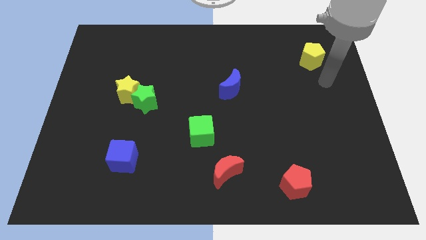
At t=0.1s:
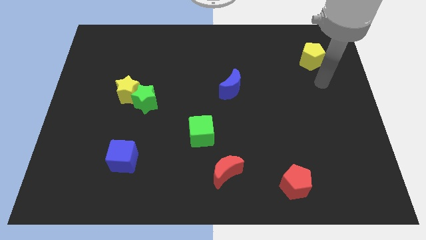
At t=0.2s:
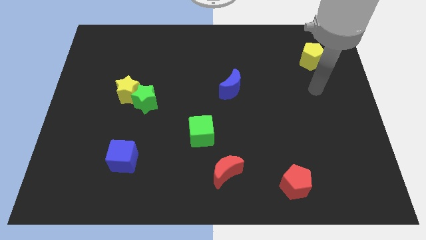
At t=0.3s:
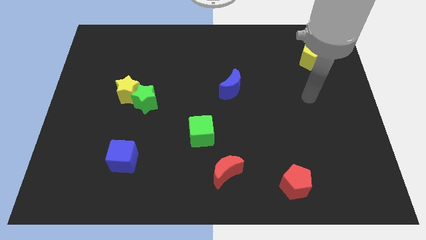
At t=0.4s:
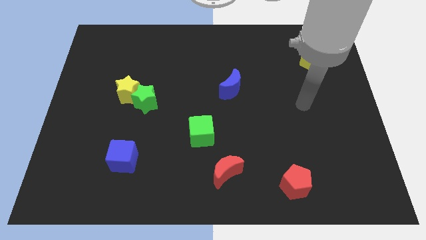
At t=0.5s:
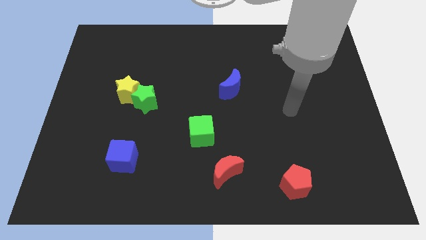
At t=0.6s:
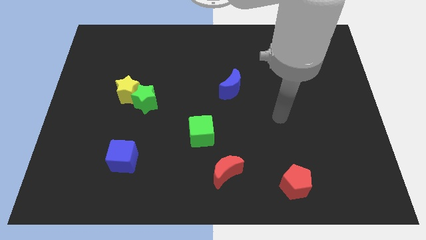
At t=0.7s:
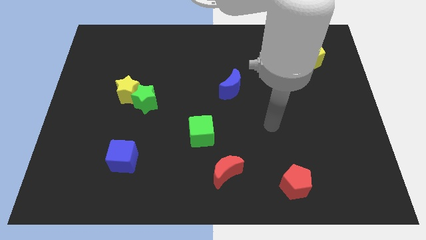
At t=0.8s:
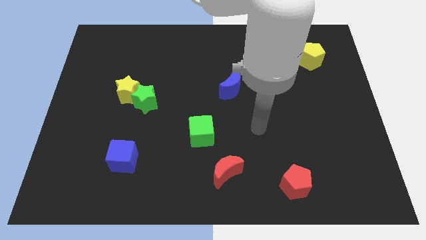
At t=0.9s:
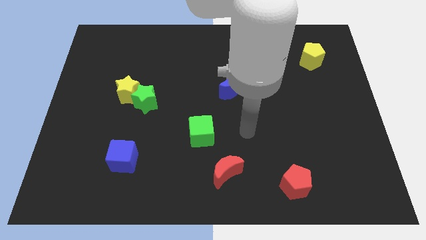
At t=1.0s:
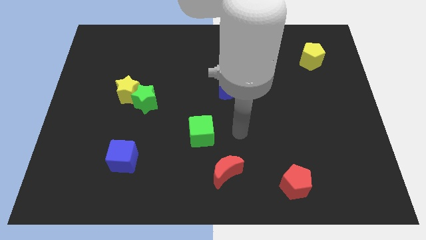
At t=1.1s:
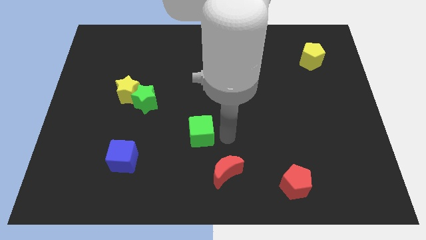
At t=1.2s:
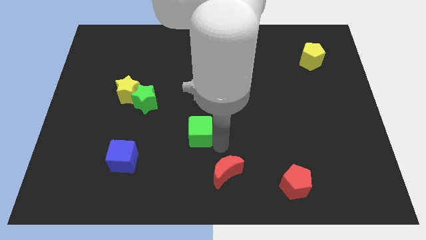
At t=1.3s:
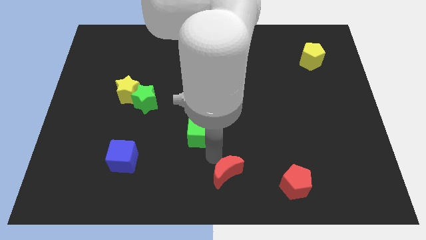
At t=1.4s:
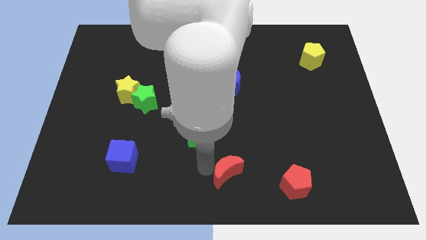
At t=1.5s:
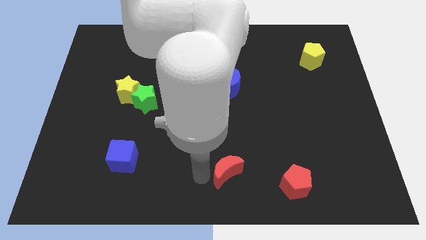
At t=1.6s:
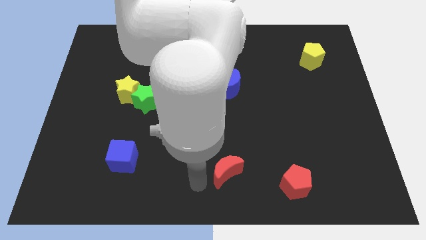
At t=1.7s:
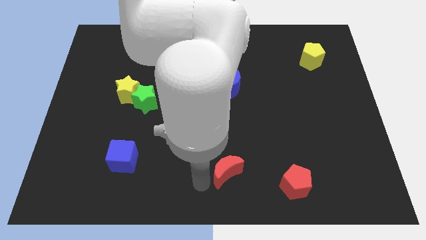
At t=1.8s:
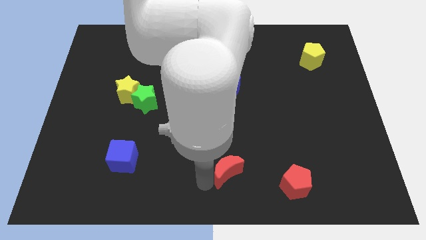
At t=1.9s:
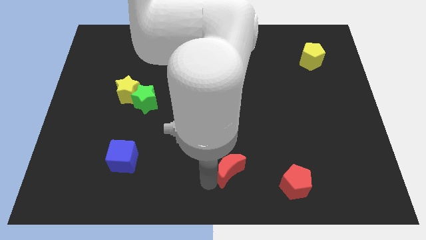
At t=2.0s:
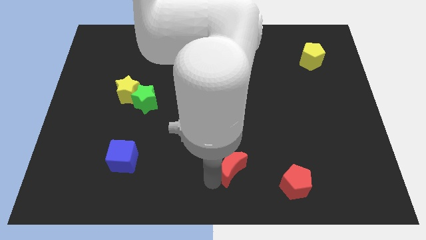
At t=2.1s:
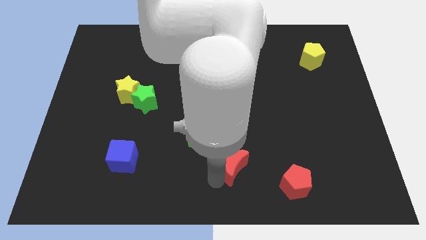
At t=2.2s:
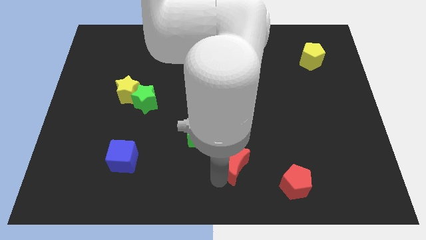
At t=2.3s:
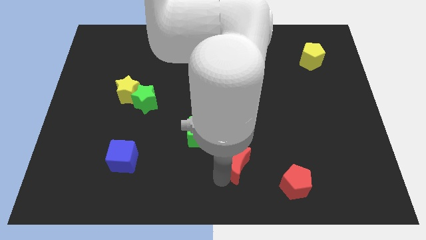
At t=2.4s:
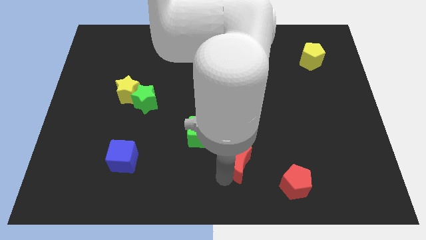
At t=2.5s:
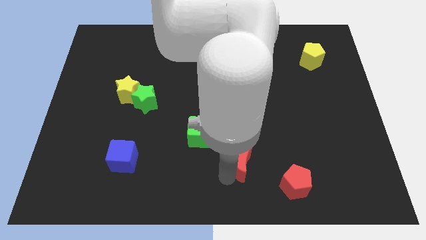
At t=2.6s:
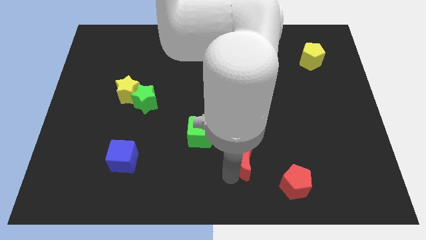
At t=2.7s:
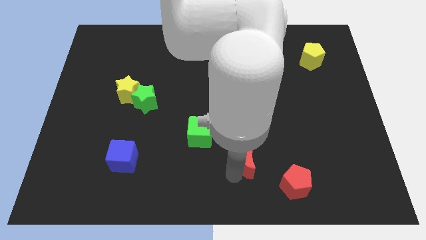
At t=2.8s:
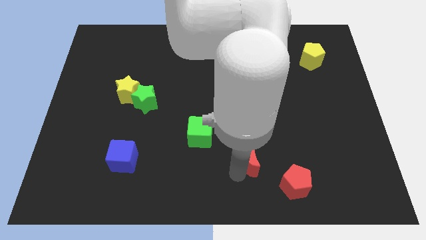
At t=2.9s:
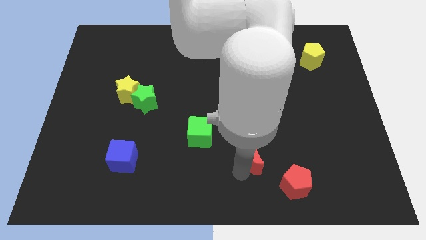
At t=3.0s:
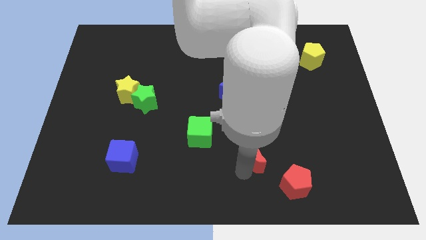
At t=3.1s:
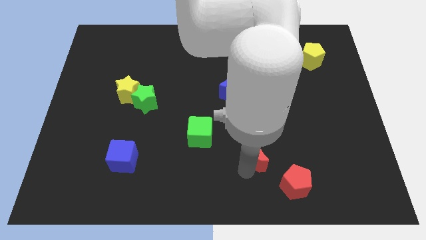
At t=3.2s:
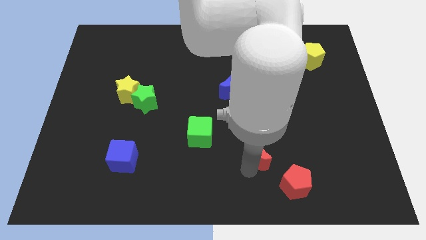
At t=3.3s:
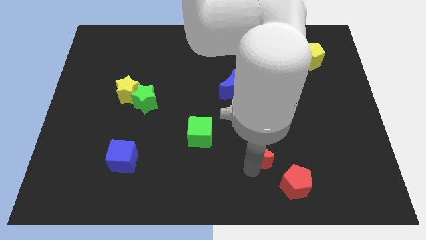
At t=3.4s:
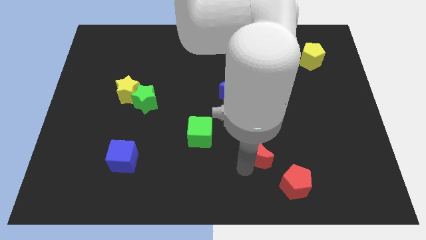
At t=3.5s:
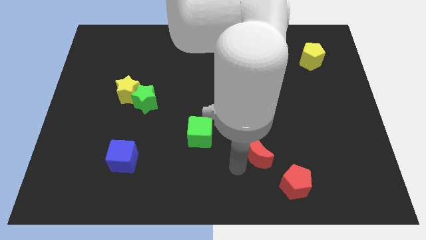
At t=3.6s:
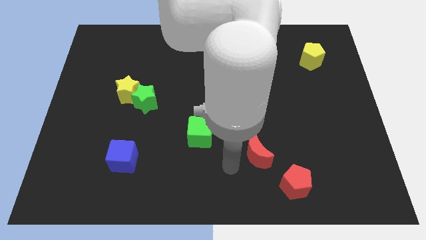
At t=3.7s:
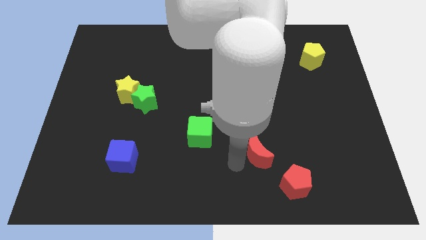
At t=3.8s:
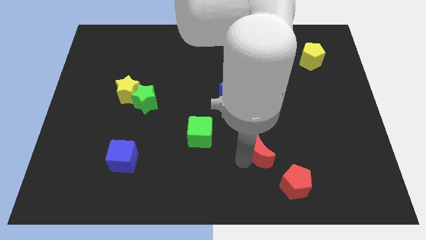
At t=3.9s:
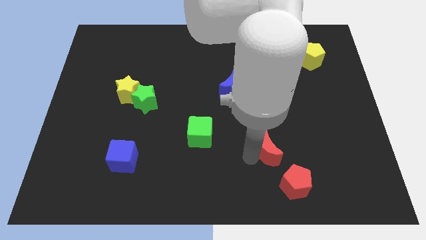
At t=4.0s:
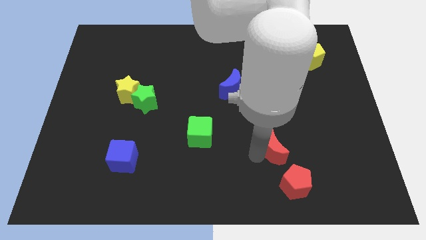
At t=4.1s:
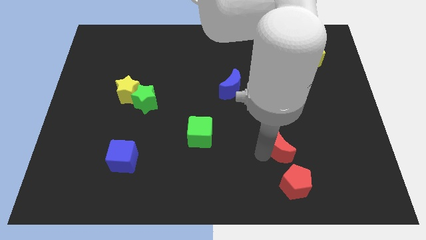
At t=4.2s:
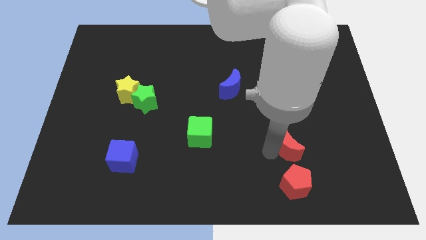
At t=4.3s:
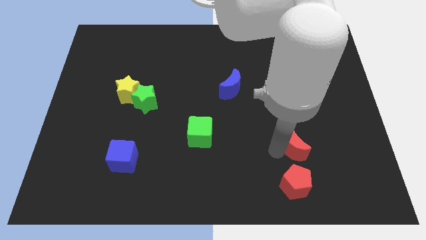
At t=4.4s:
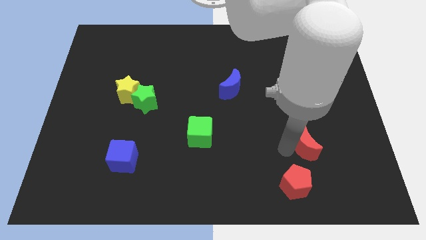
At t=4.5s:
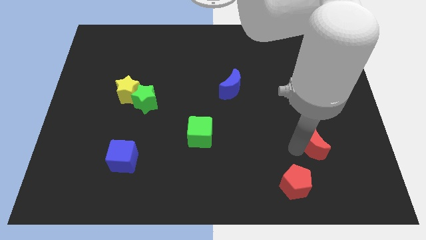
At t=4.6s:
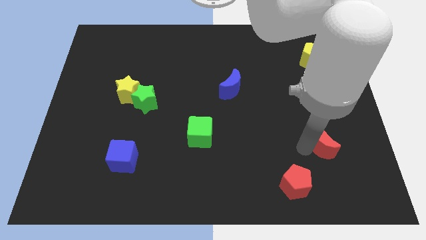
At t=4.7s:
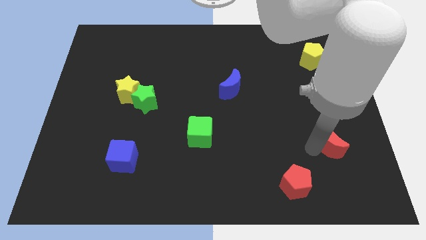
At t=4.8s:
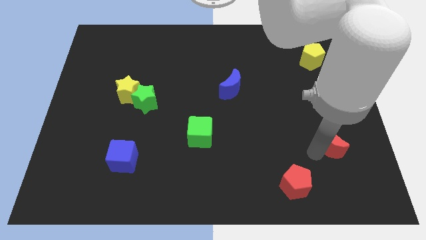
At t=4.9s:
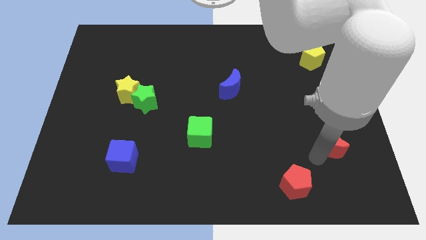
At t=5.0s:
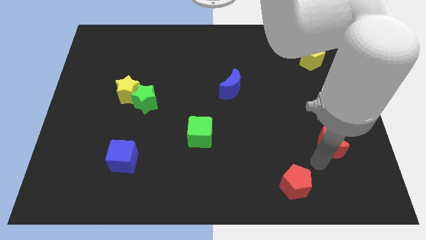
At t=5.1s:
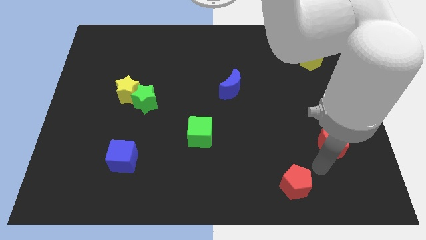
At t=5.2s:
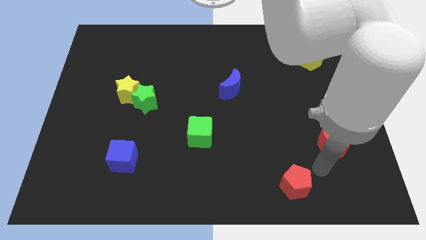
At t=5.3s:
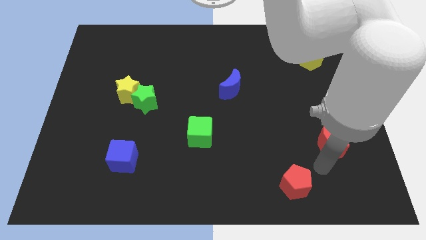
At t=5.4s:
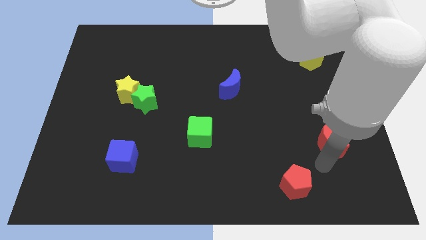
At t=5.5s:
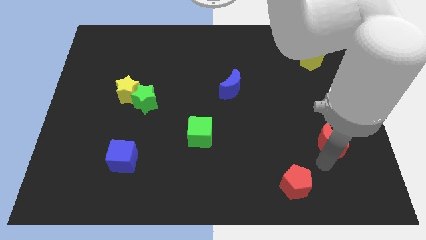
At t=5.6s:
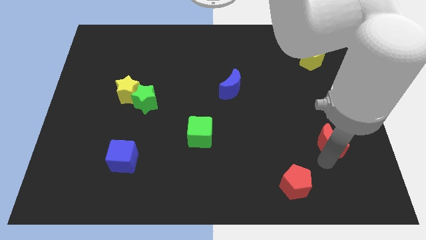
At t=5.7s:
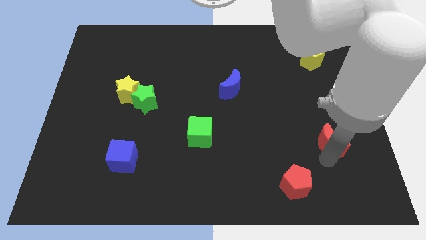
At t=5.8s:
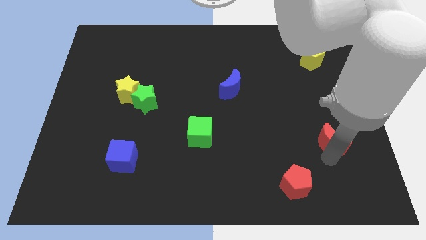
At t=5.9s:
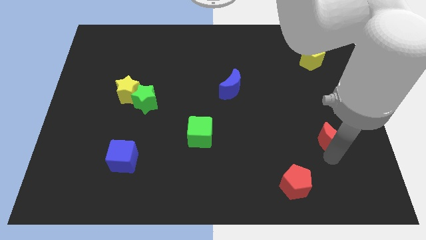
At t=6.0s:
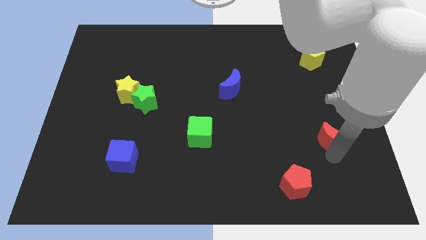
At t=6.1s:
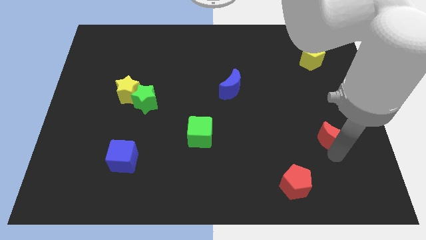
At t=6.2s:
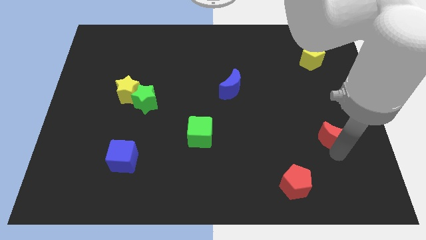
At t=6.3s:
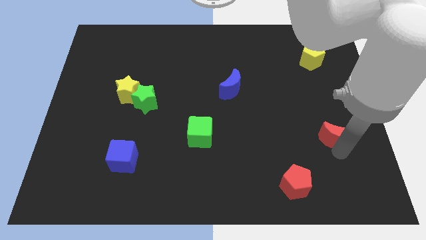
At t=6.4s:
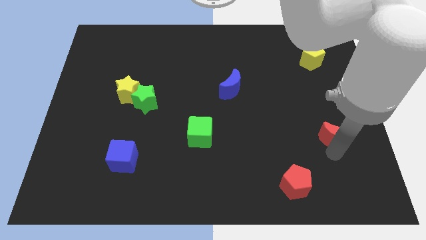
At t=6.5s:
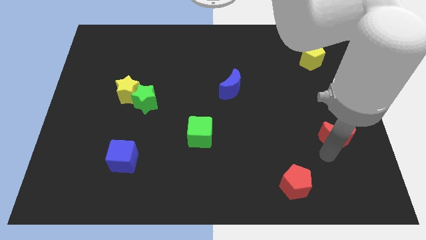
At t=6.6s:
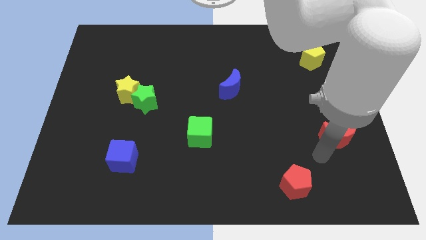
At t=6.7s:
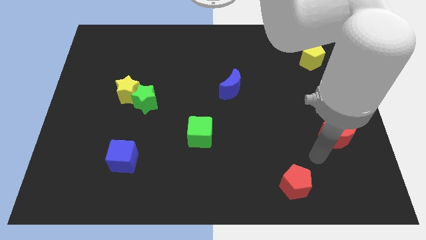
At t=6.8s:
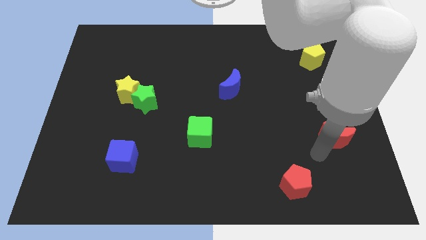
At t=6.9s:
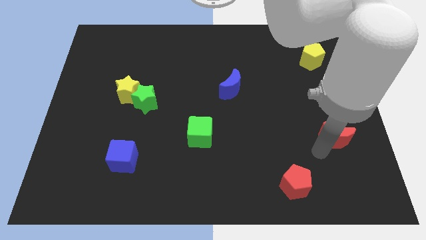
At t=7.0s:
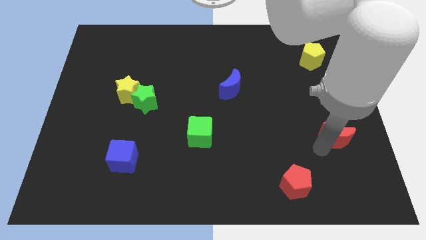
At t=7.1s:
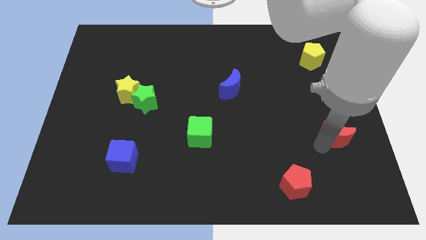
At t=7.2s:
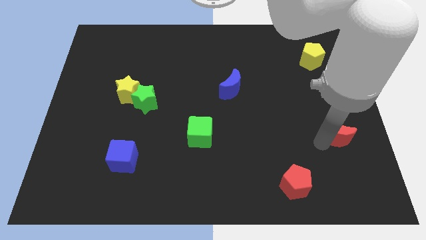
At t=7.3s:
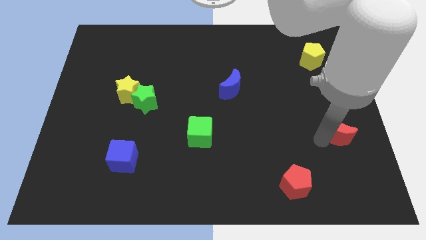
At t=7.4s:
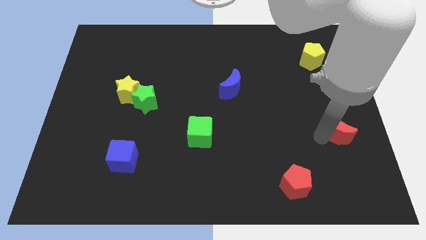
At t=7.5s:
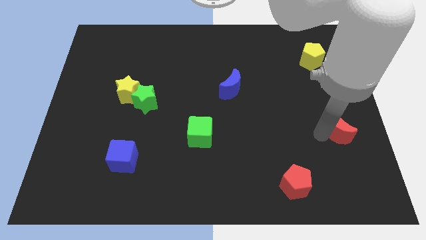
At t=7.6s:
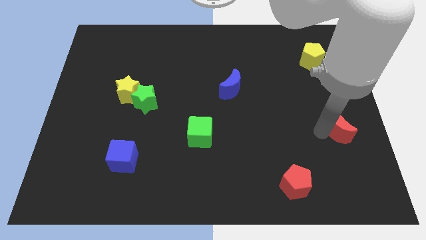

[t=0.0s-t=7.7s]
move the red moon to the right side
